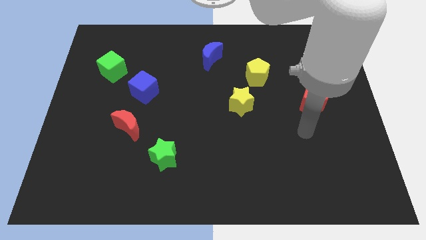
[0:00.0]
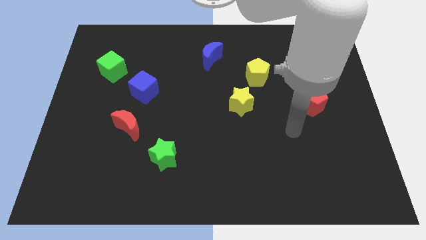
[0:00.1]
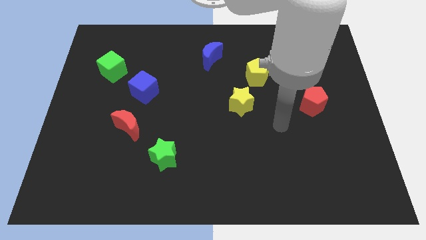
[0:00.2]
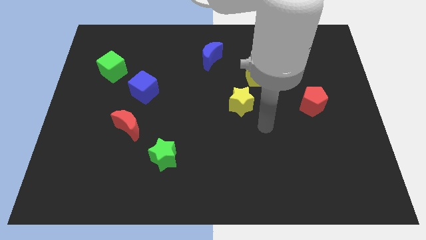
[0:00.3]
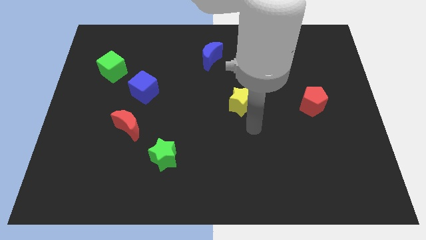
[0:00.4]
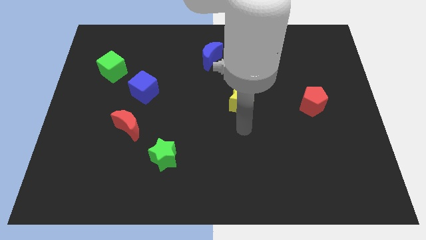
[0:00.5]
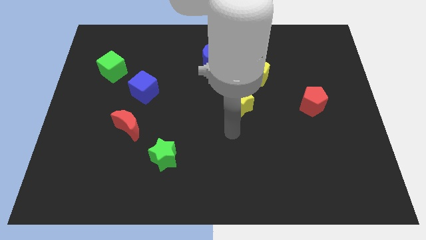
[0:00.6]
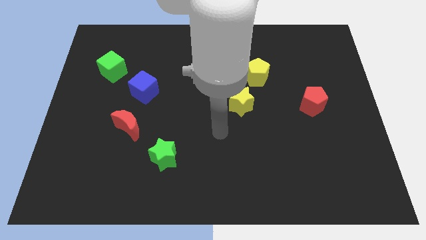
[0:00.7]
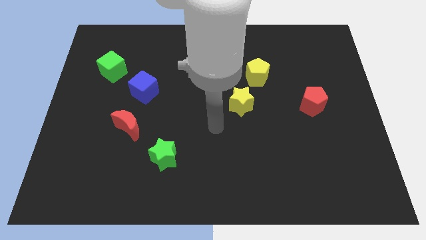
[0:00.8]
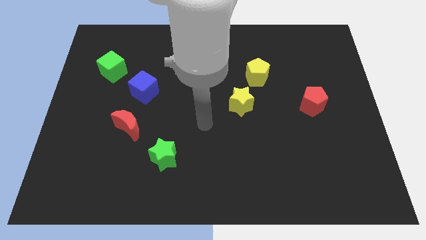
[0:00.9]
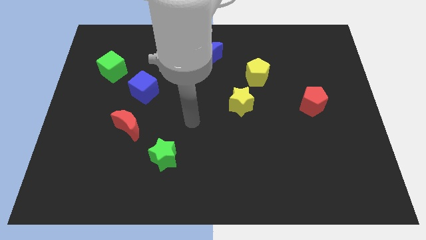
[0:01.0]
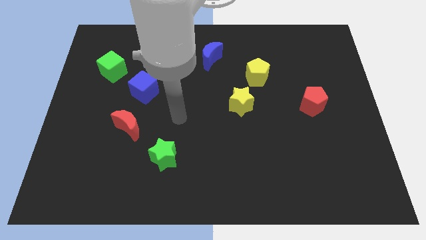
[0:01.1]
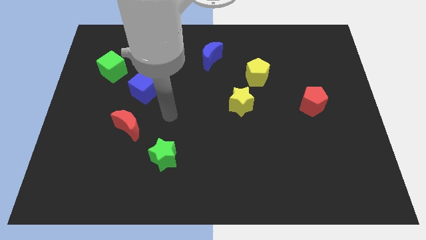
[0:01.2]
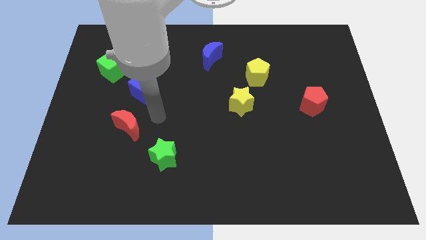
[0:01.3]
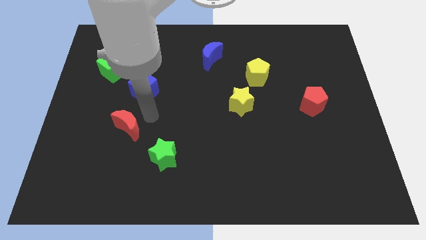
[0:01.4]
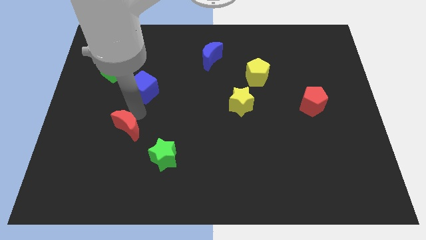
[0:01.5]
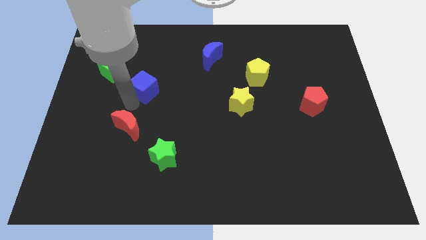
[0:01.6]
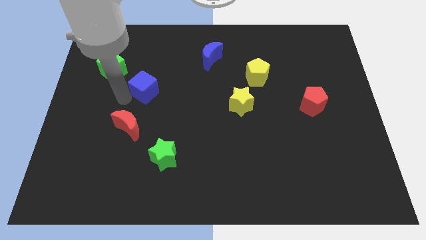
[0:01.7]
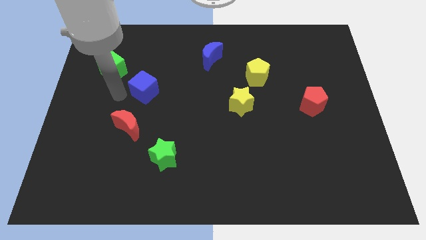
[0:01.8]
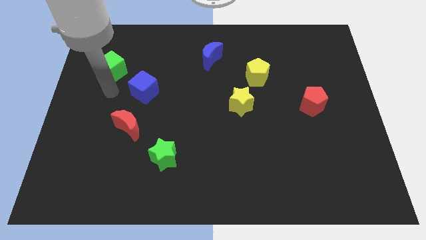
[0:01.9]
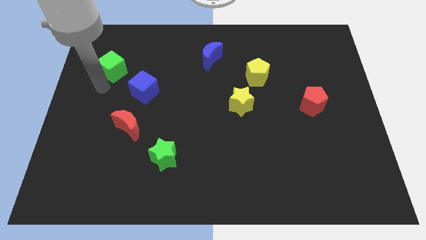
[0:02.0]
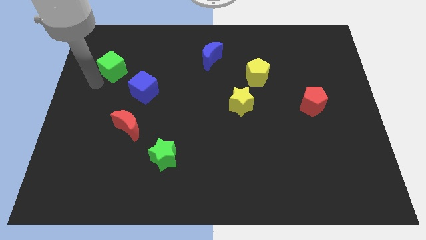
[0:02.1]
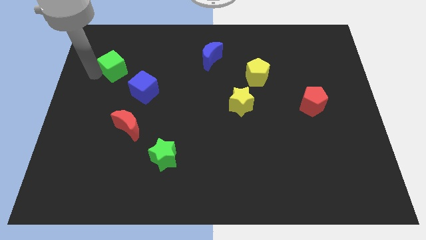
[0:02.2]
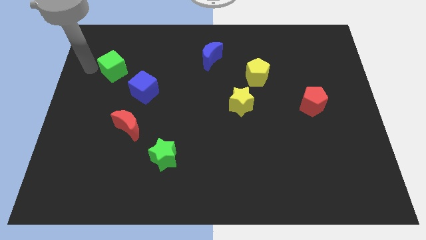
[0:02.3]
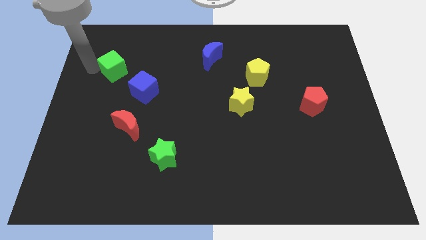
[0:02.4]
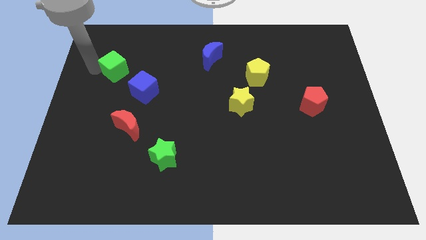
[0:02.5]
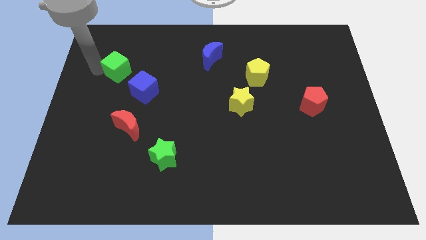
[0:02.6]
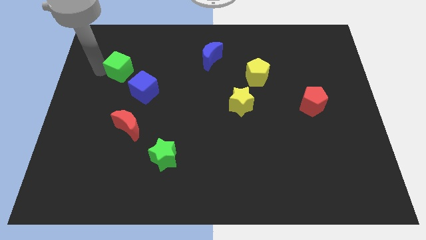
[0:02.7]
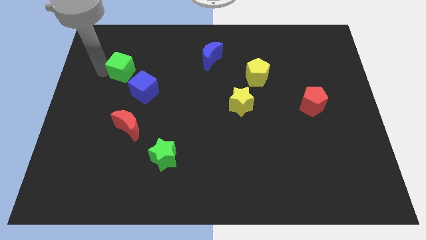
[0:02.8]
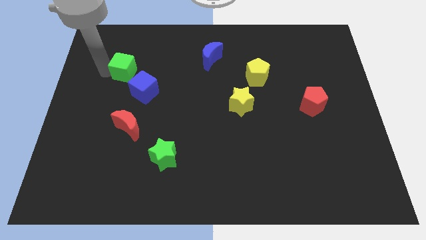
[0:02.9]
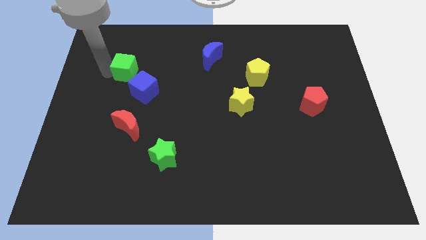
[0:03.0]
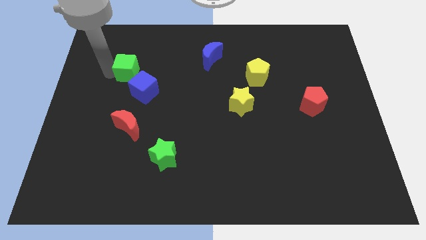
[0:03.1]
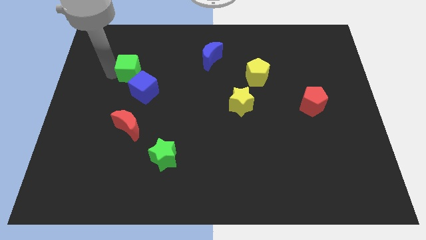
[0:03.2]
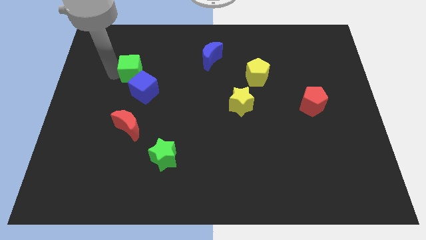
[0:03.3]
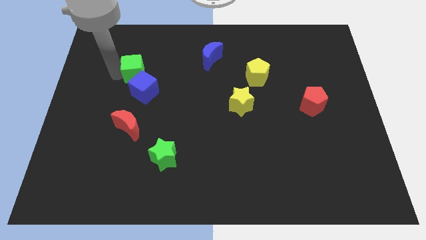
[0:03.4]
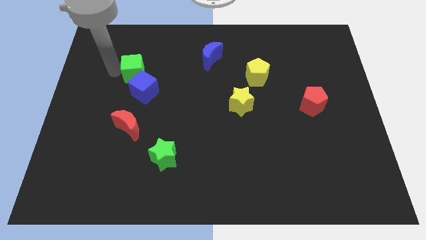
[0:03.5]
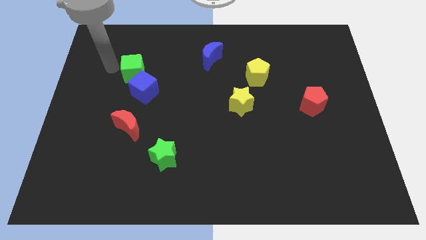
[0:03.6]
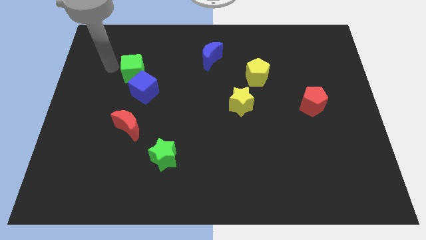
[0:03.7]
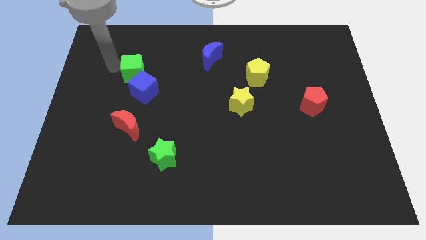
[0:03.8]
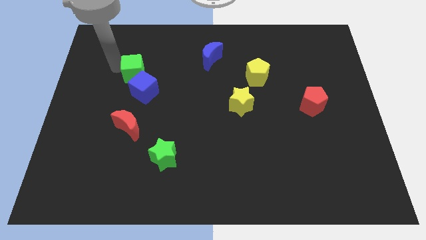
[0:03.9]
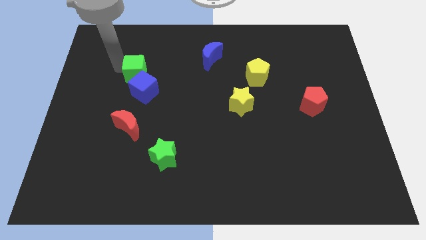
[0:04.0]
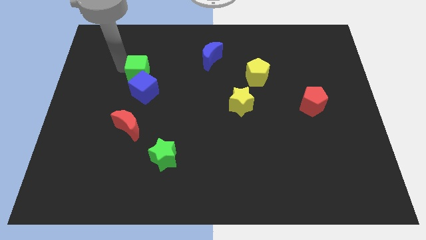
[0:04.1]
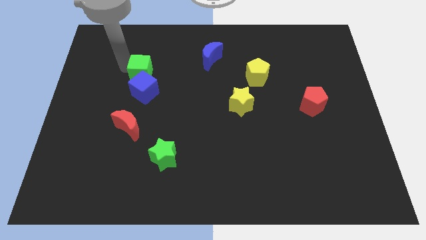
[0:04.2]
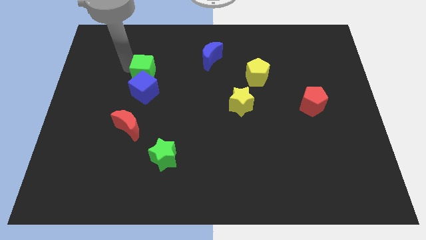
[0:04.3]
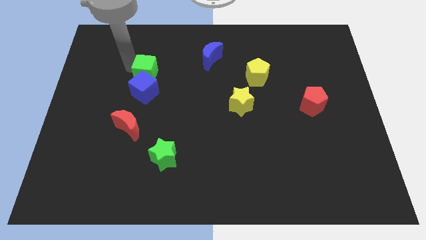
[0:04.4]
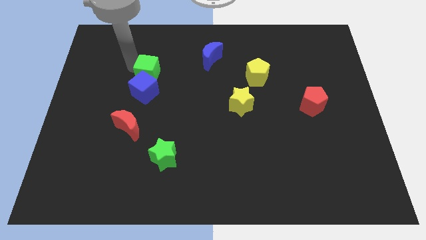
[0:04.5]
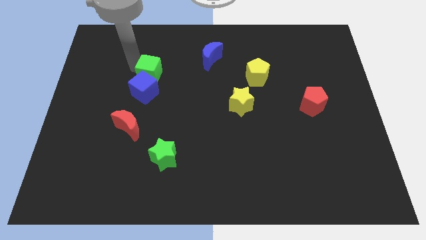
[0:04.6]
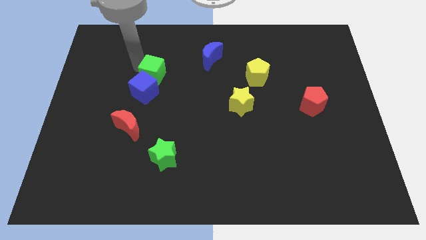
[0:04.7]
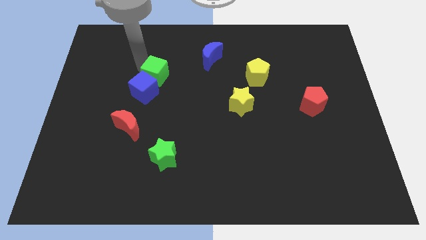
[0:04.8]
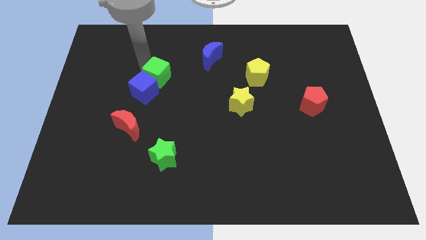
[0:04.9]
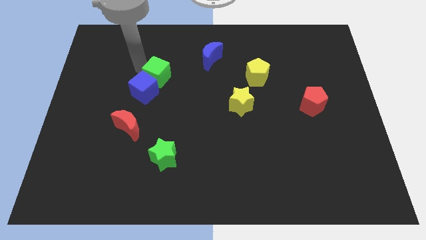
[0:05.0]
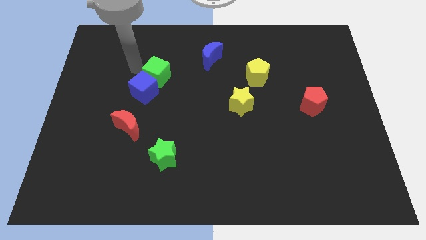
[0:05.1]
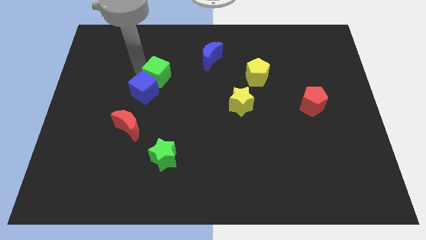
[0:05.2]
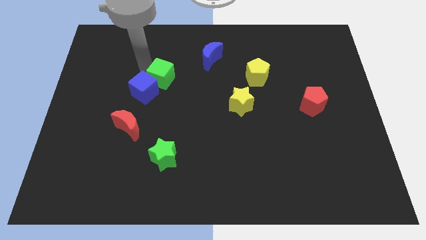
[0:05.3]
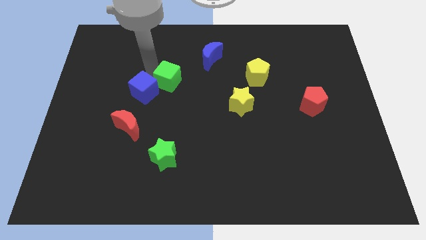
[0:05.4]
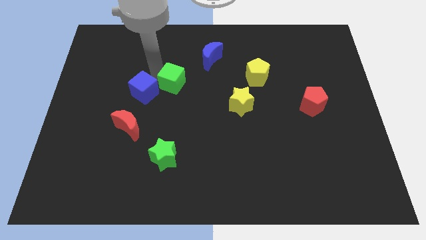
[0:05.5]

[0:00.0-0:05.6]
move the green cube to the center of the board

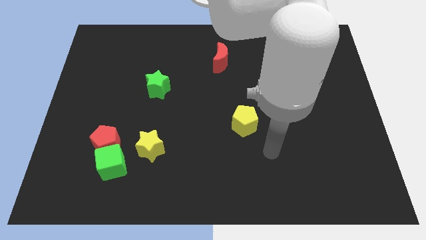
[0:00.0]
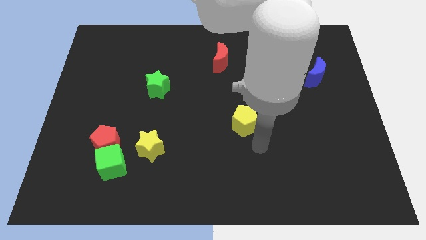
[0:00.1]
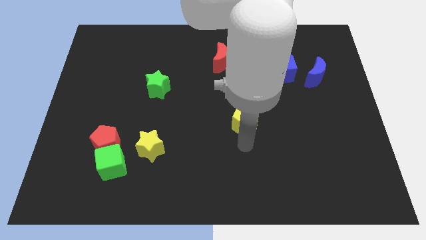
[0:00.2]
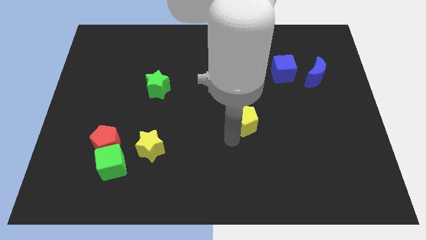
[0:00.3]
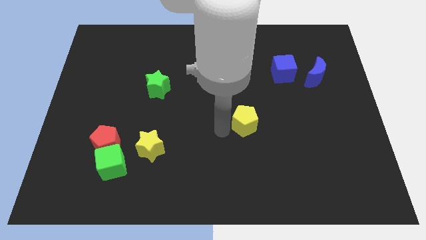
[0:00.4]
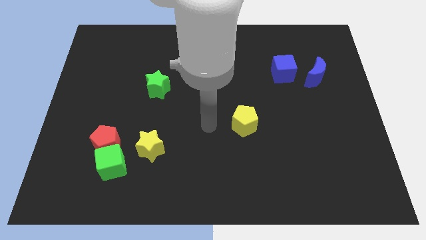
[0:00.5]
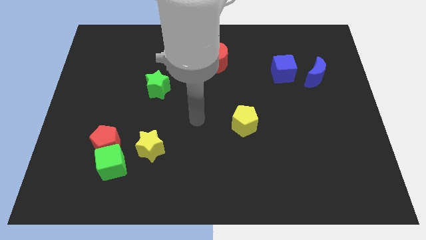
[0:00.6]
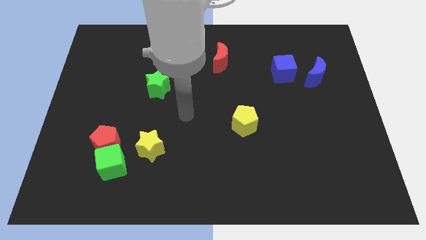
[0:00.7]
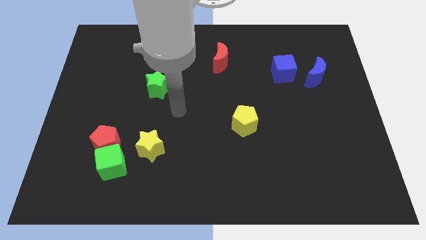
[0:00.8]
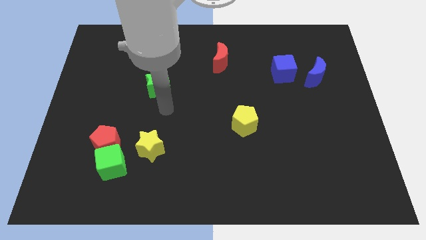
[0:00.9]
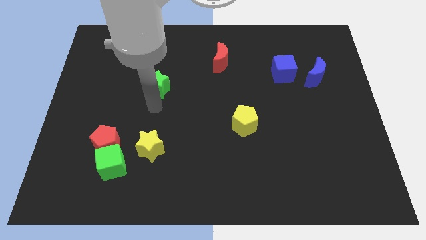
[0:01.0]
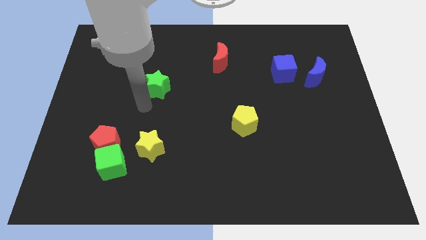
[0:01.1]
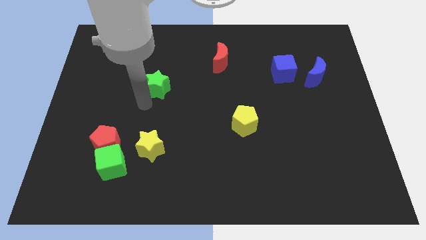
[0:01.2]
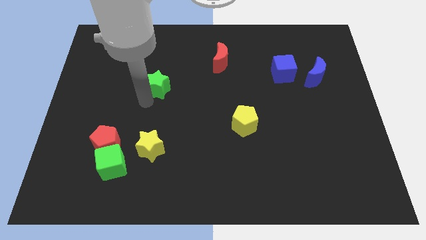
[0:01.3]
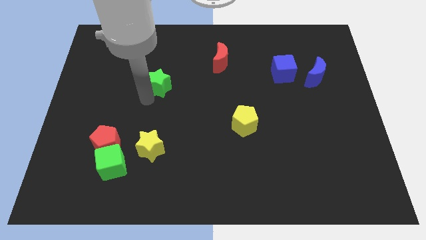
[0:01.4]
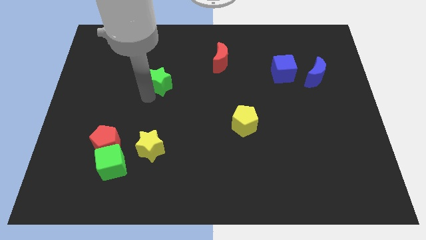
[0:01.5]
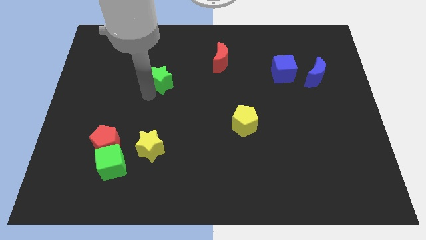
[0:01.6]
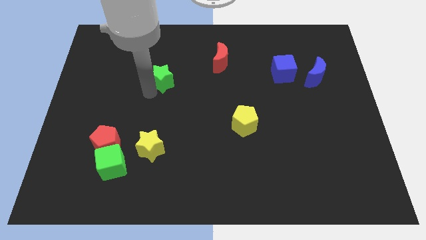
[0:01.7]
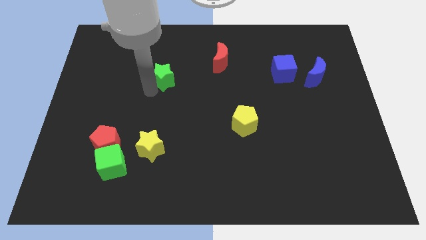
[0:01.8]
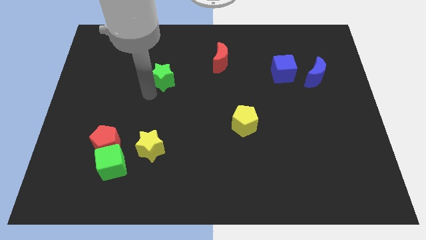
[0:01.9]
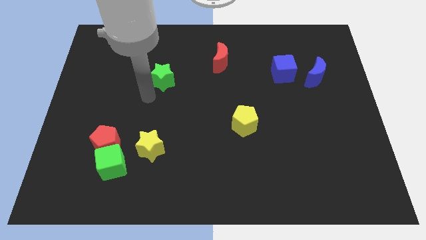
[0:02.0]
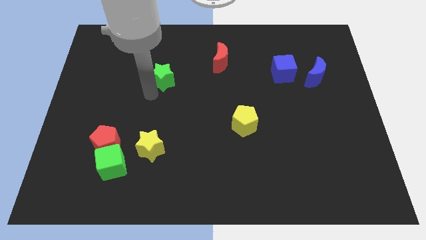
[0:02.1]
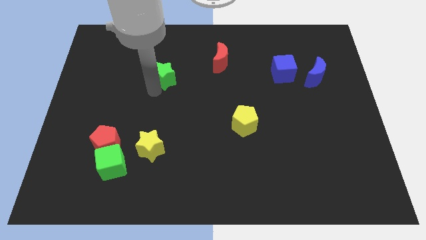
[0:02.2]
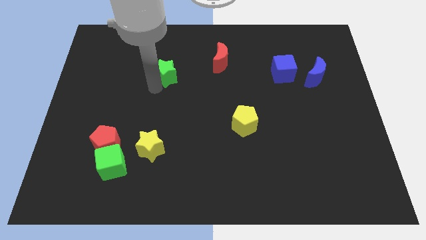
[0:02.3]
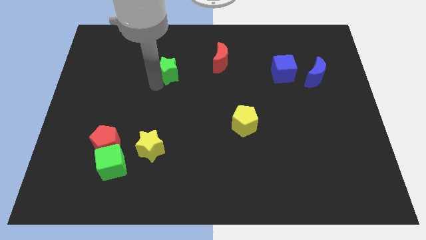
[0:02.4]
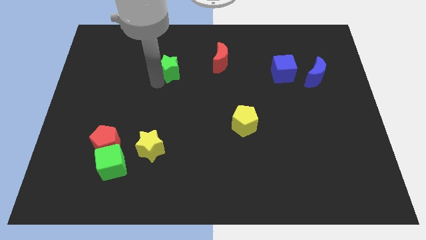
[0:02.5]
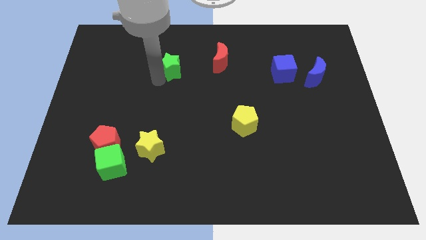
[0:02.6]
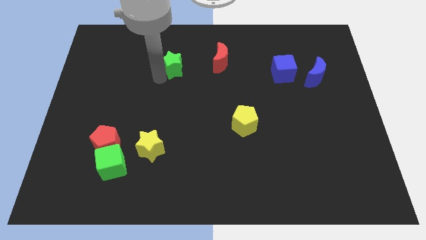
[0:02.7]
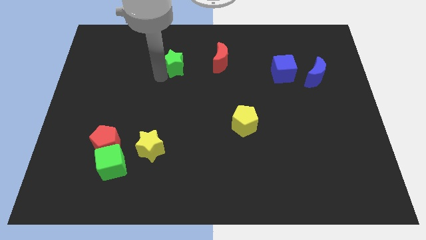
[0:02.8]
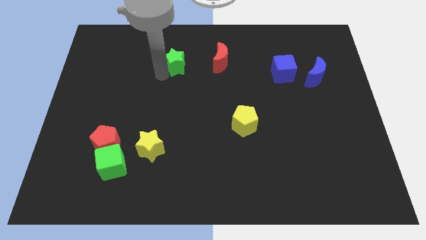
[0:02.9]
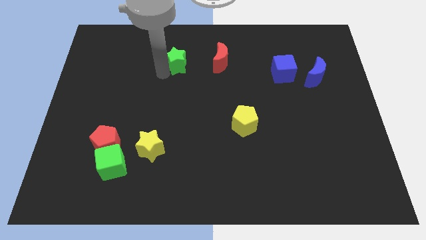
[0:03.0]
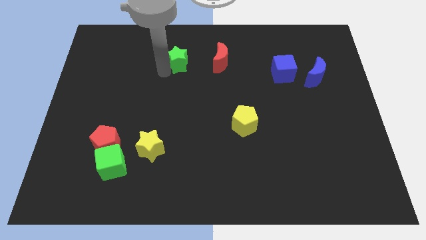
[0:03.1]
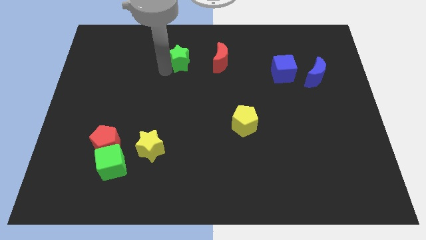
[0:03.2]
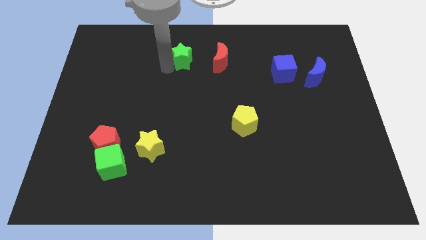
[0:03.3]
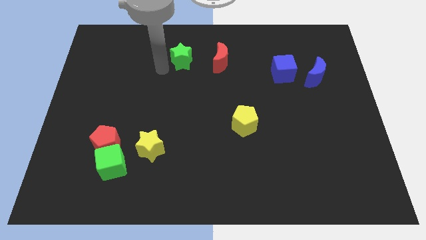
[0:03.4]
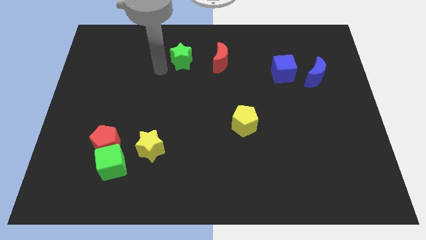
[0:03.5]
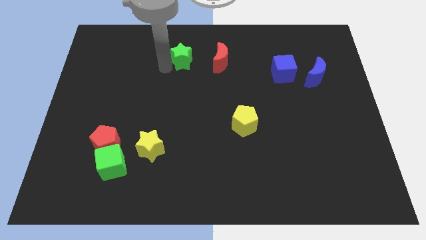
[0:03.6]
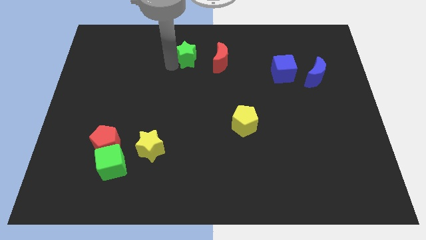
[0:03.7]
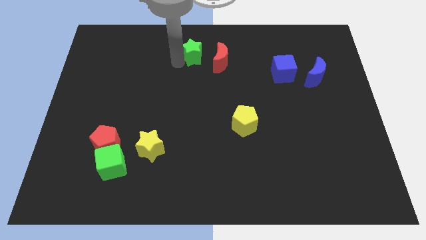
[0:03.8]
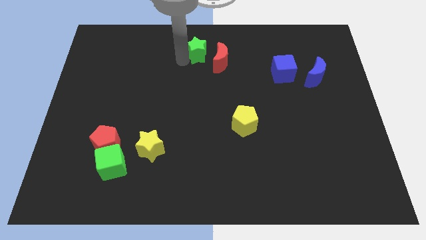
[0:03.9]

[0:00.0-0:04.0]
put the green star to the top side
